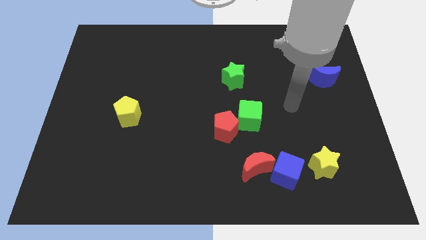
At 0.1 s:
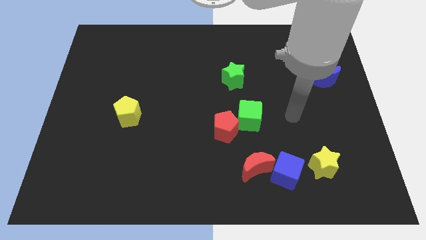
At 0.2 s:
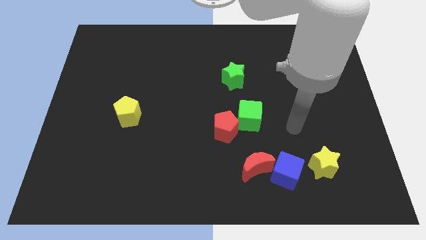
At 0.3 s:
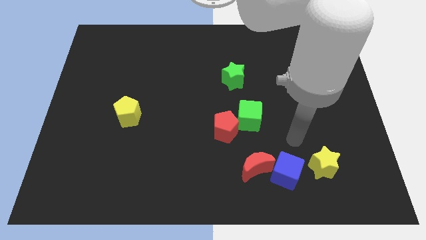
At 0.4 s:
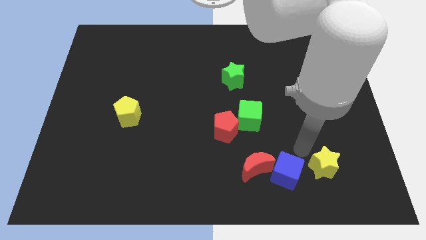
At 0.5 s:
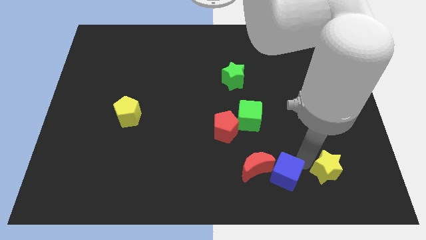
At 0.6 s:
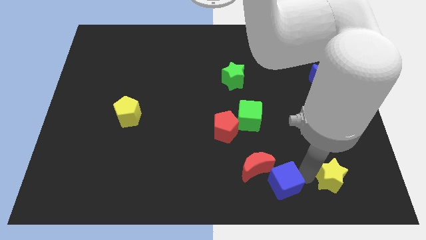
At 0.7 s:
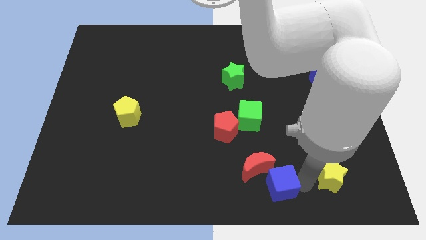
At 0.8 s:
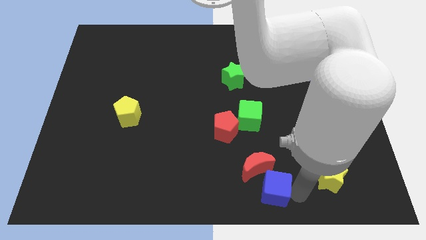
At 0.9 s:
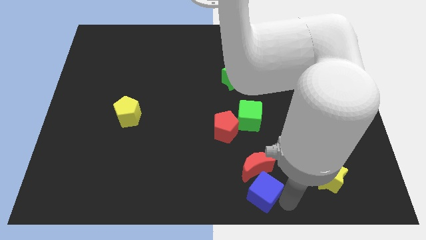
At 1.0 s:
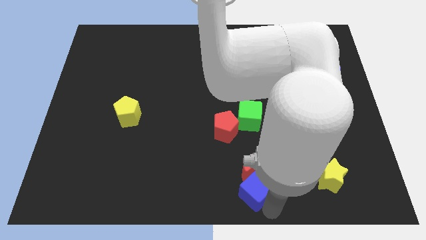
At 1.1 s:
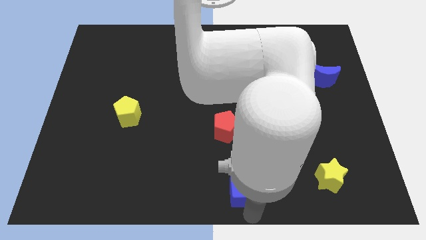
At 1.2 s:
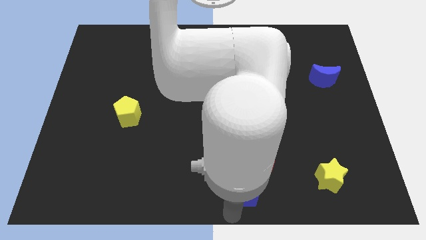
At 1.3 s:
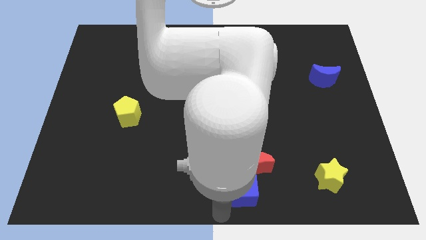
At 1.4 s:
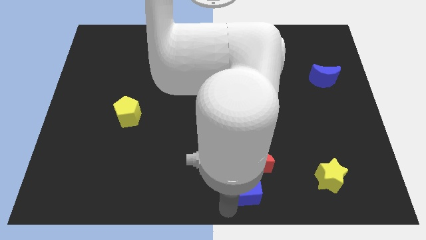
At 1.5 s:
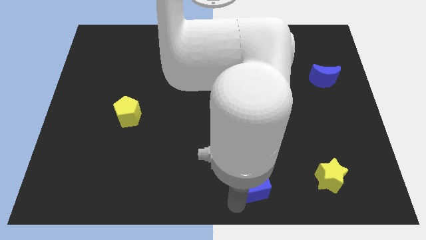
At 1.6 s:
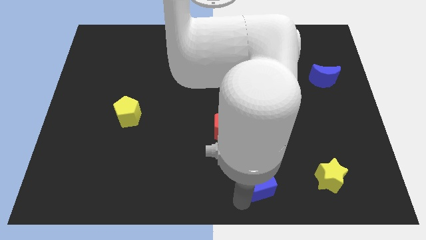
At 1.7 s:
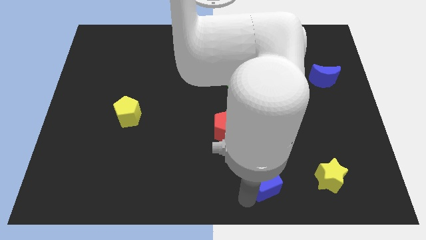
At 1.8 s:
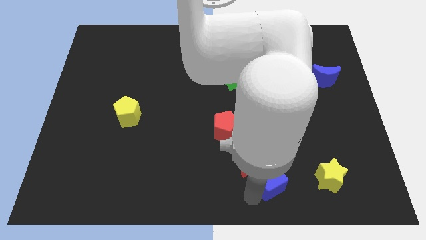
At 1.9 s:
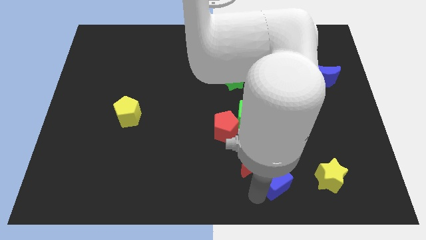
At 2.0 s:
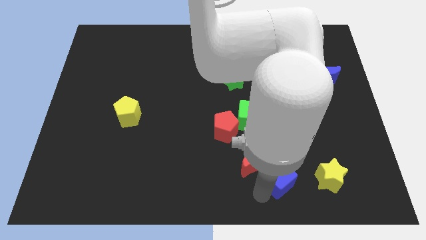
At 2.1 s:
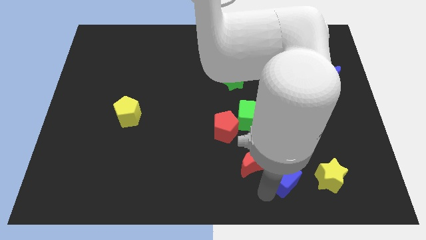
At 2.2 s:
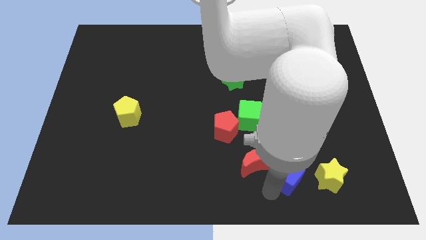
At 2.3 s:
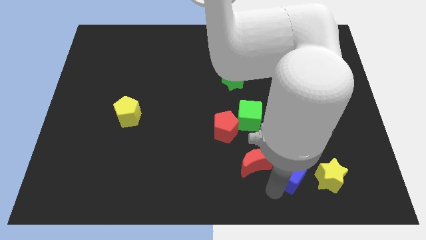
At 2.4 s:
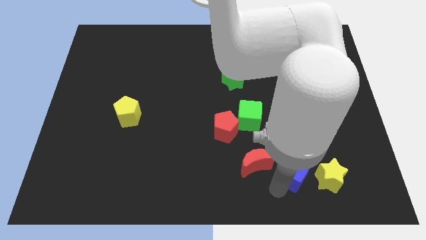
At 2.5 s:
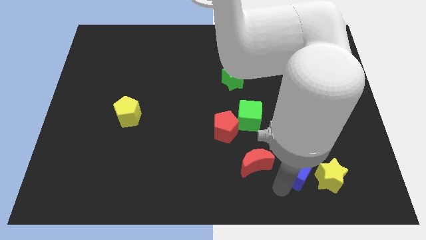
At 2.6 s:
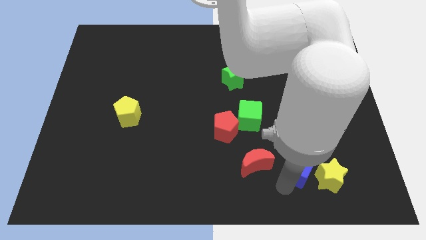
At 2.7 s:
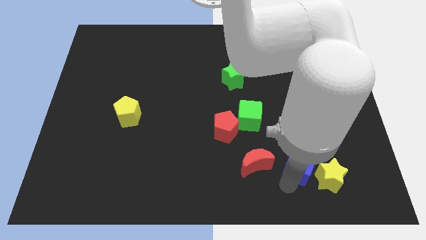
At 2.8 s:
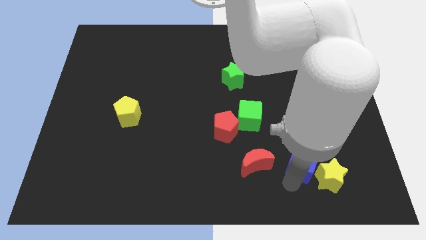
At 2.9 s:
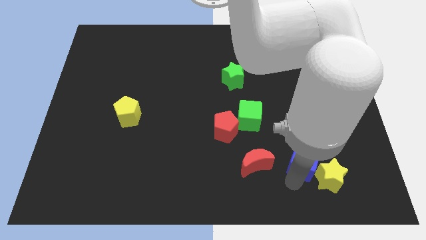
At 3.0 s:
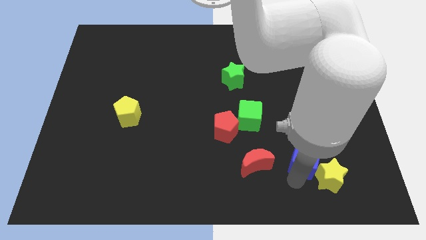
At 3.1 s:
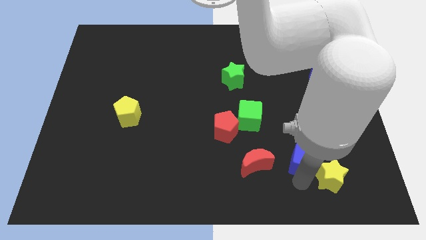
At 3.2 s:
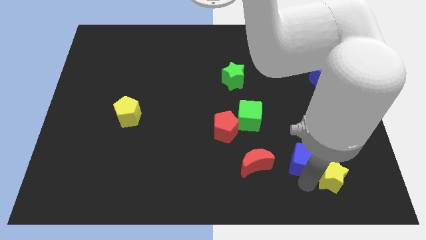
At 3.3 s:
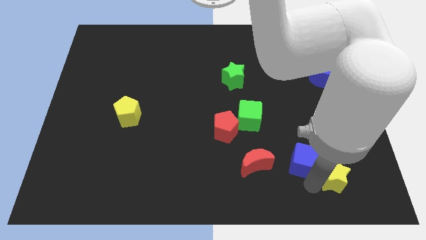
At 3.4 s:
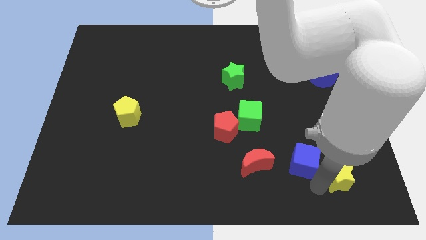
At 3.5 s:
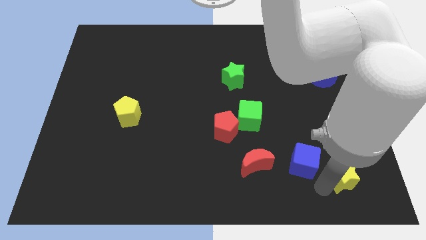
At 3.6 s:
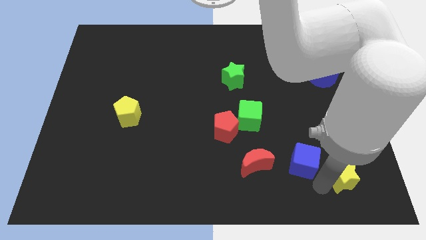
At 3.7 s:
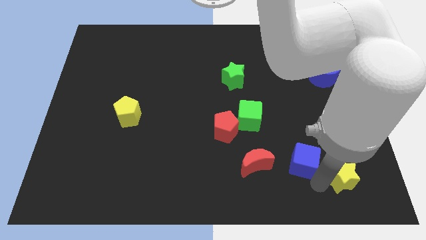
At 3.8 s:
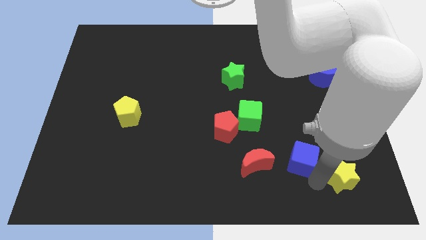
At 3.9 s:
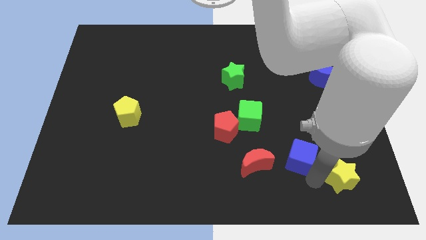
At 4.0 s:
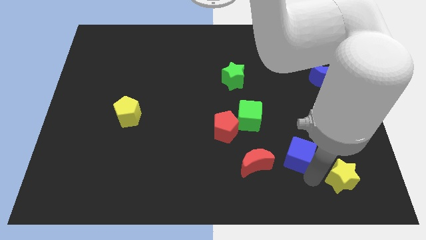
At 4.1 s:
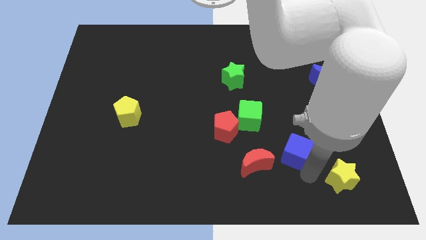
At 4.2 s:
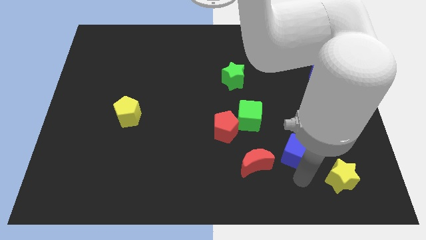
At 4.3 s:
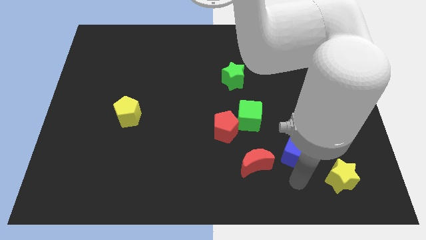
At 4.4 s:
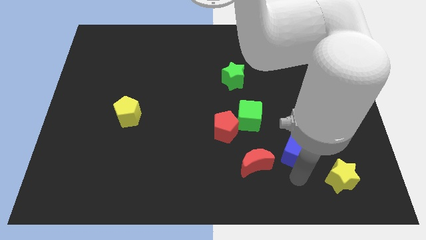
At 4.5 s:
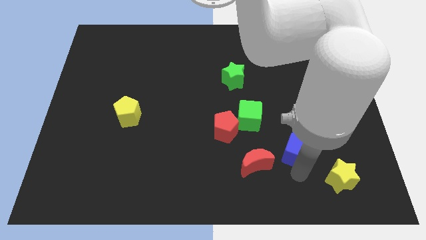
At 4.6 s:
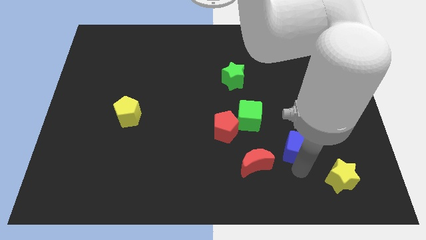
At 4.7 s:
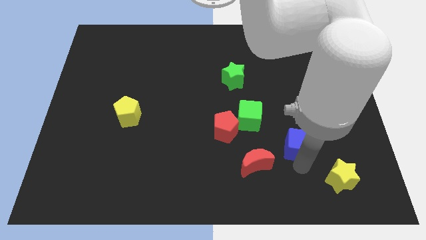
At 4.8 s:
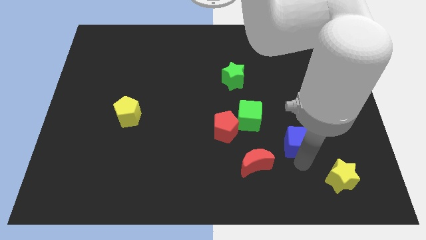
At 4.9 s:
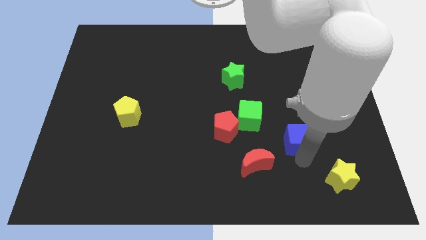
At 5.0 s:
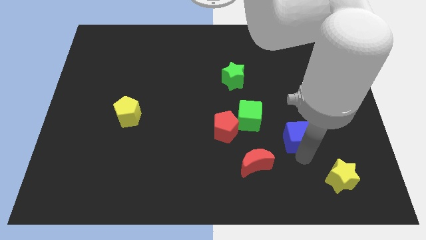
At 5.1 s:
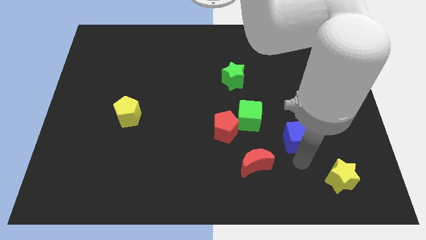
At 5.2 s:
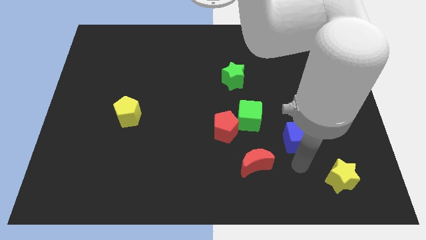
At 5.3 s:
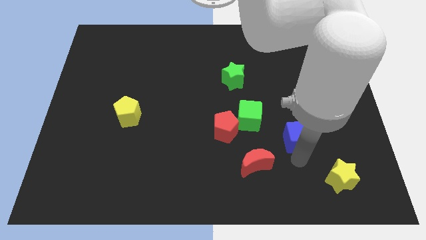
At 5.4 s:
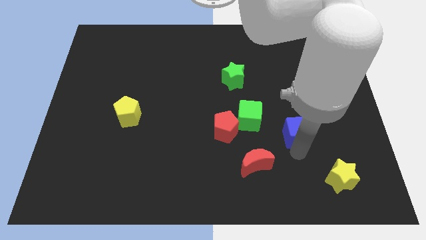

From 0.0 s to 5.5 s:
move the blue cube to the right of the green cube

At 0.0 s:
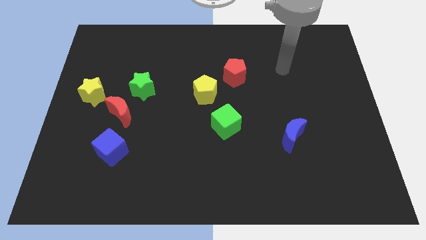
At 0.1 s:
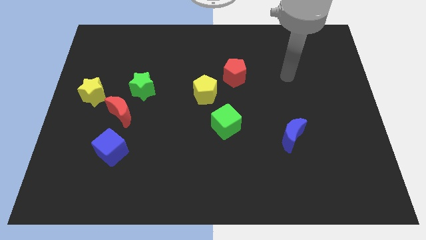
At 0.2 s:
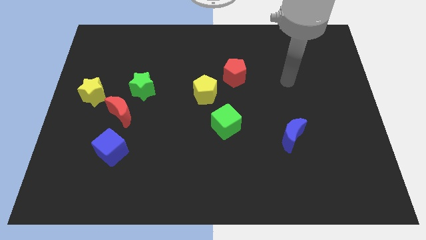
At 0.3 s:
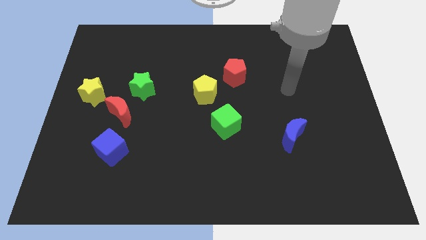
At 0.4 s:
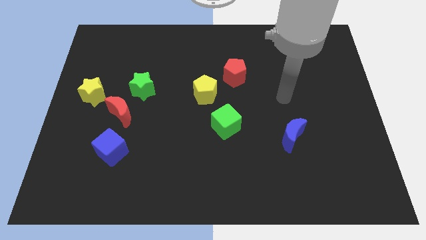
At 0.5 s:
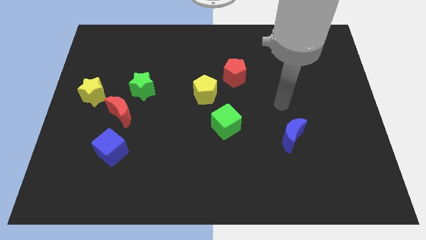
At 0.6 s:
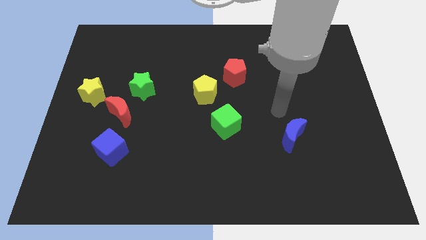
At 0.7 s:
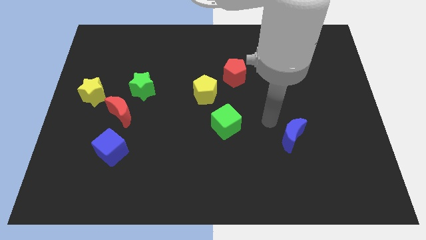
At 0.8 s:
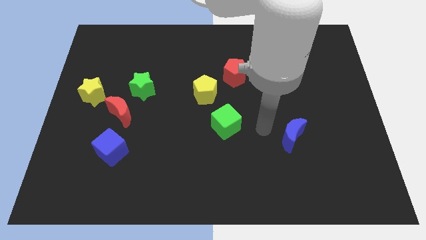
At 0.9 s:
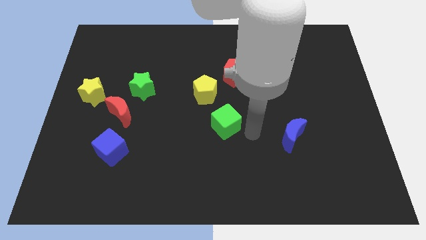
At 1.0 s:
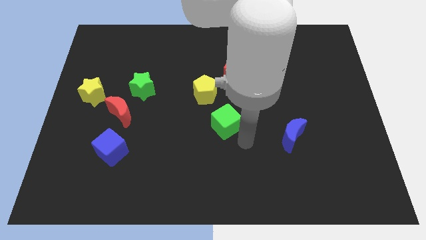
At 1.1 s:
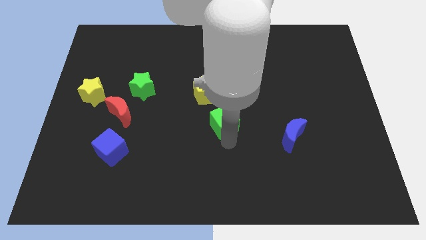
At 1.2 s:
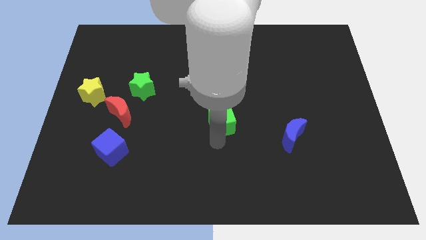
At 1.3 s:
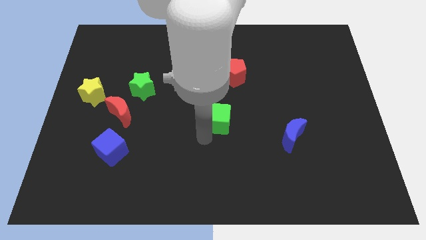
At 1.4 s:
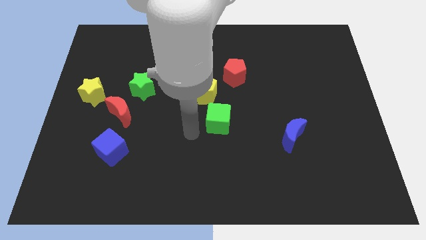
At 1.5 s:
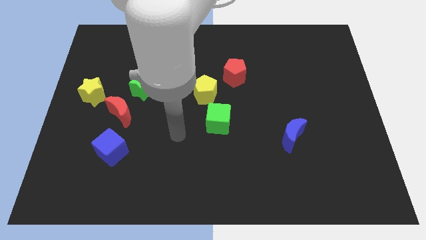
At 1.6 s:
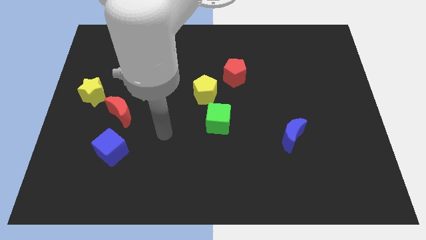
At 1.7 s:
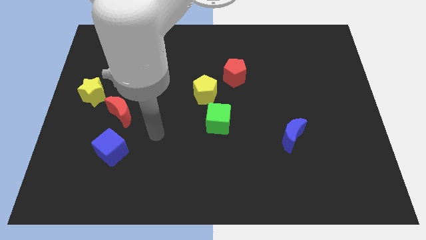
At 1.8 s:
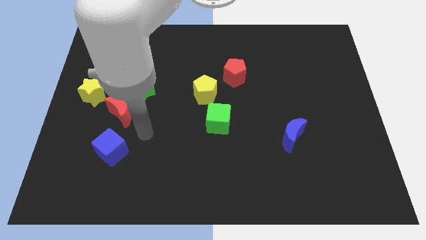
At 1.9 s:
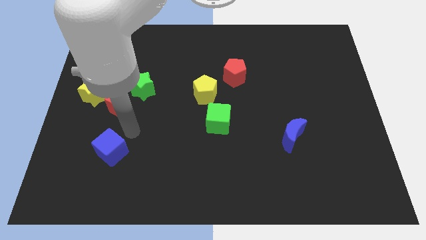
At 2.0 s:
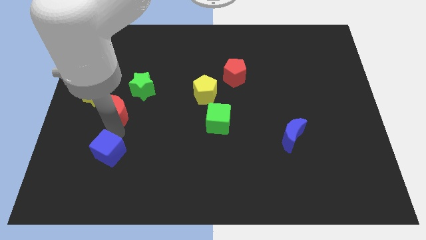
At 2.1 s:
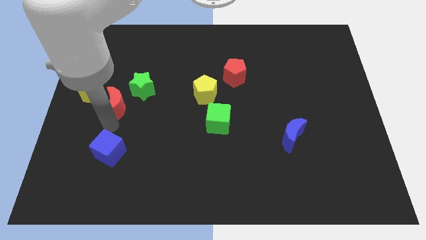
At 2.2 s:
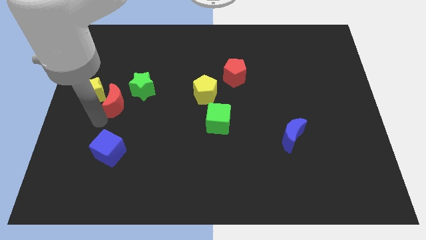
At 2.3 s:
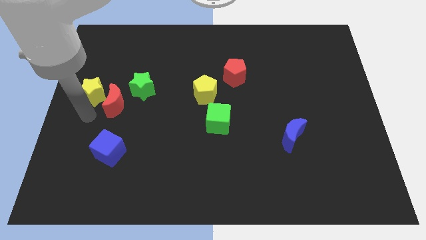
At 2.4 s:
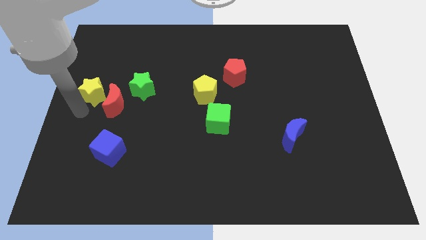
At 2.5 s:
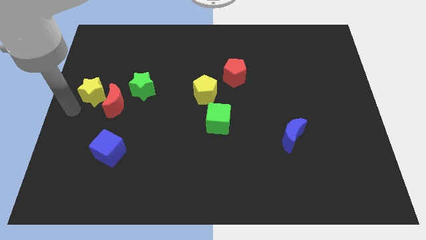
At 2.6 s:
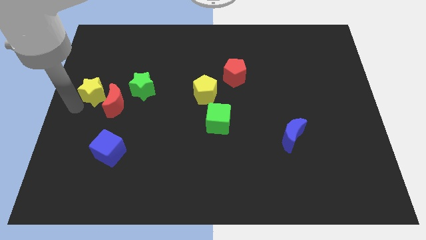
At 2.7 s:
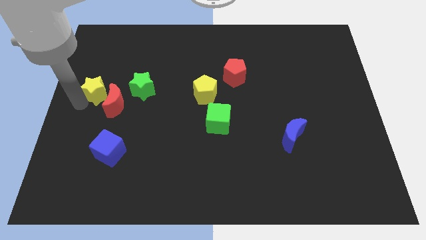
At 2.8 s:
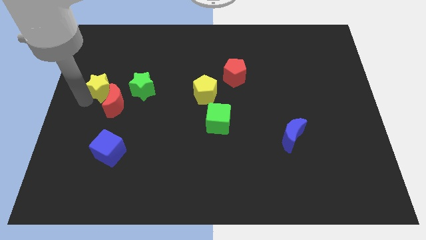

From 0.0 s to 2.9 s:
put the yellow star to the top side of the red moon
